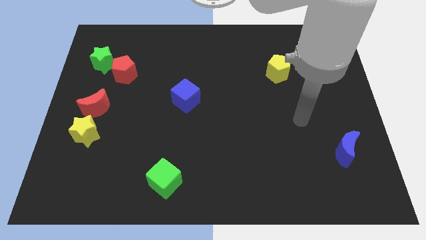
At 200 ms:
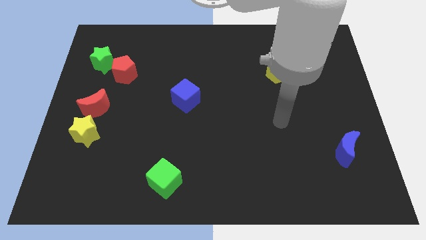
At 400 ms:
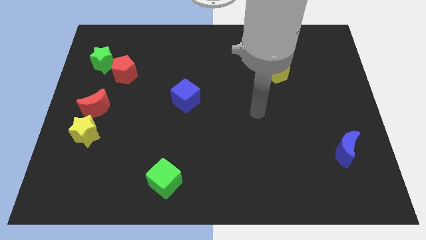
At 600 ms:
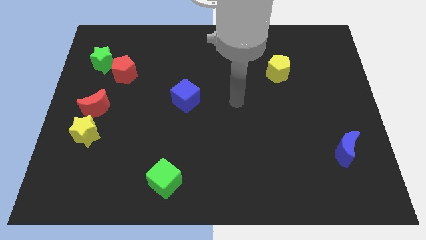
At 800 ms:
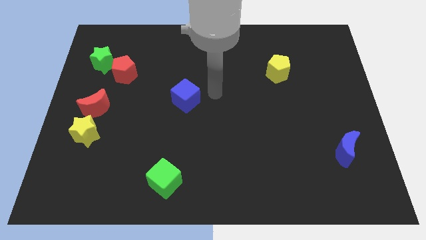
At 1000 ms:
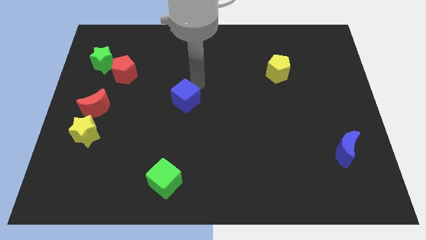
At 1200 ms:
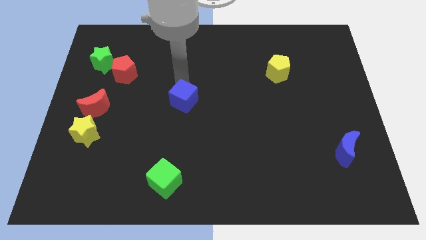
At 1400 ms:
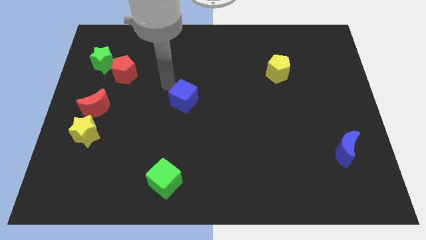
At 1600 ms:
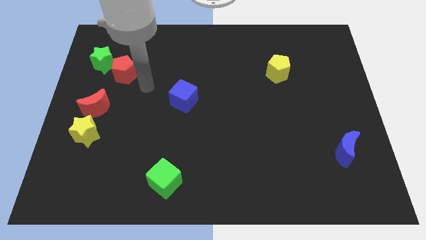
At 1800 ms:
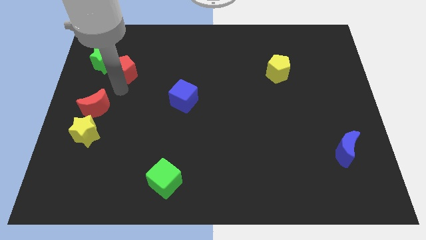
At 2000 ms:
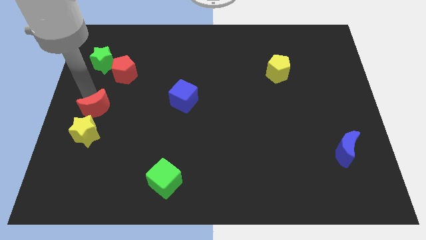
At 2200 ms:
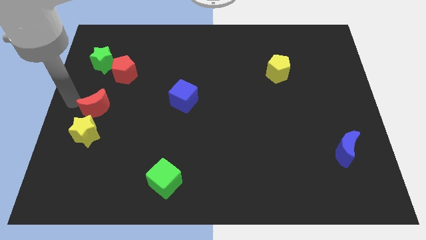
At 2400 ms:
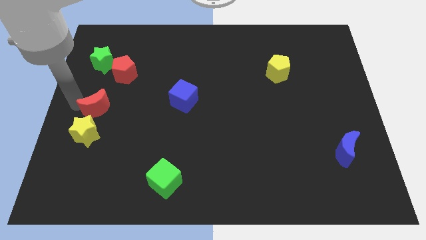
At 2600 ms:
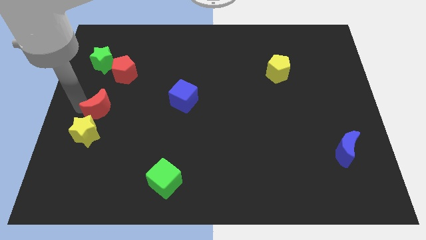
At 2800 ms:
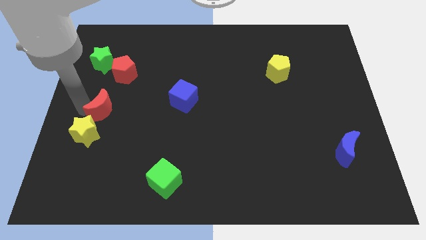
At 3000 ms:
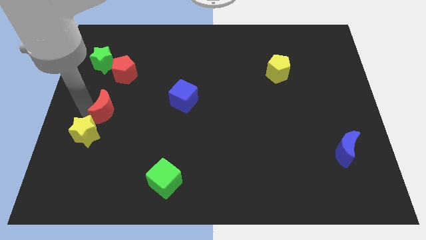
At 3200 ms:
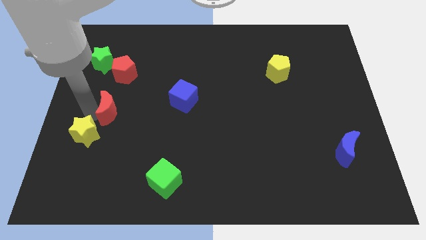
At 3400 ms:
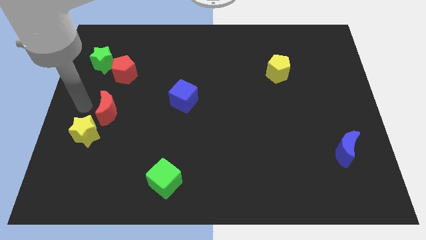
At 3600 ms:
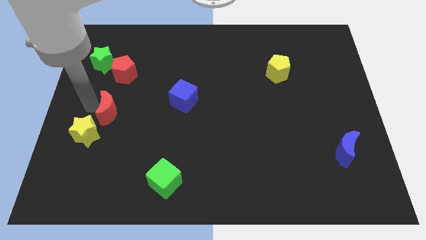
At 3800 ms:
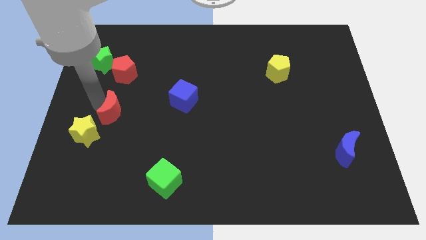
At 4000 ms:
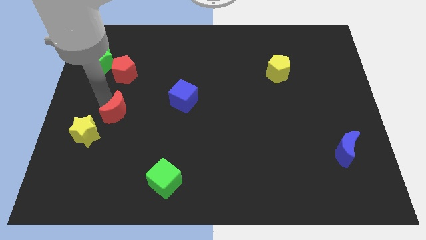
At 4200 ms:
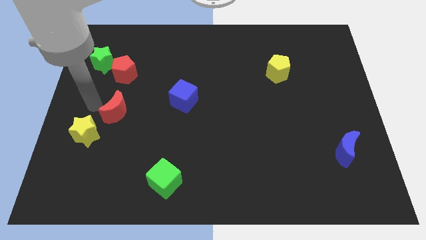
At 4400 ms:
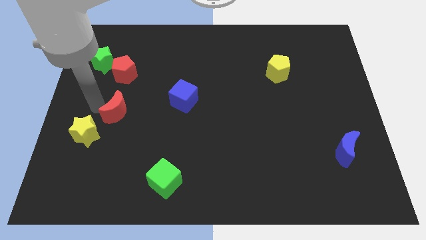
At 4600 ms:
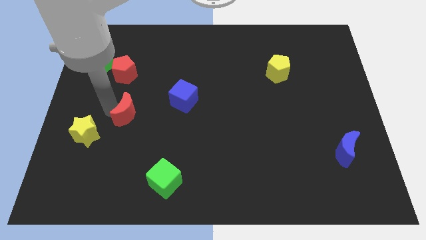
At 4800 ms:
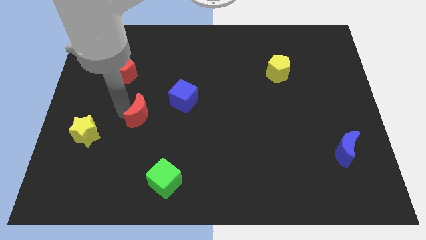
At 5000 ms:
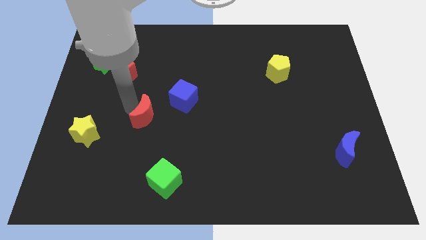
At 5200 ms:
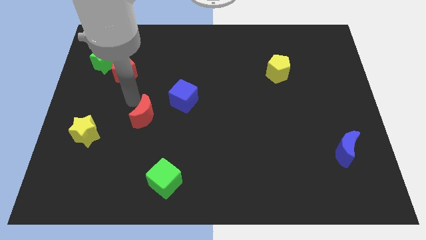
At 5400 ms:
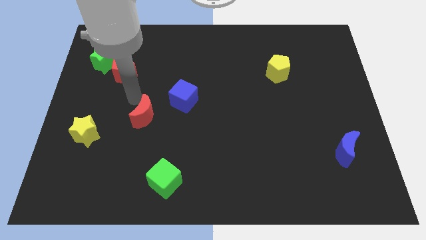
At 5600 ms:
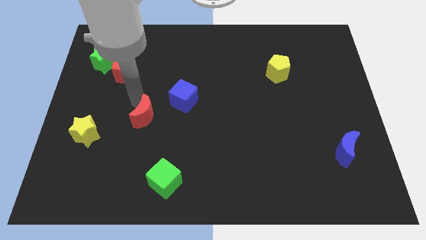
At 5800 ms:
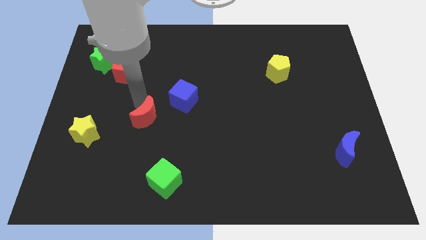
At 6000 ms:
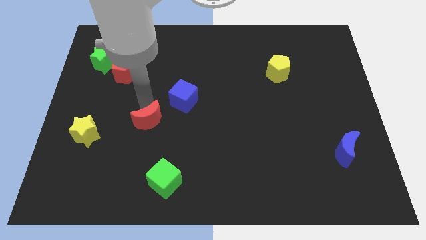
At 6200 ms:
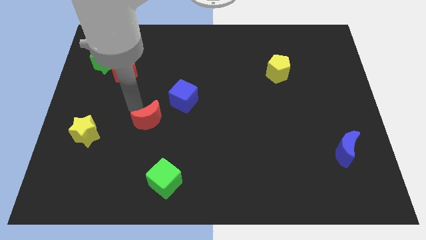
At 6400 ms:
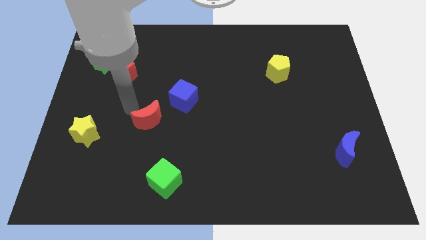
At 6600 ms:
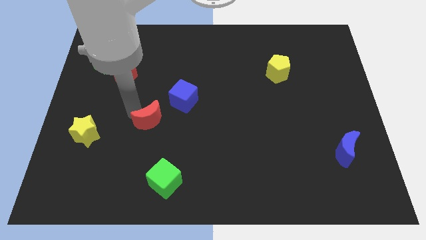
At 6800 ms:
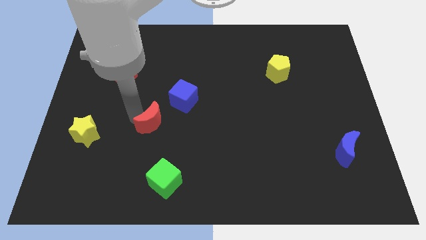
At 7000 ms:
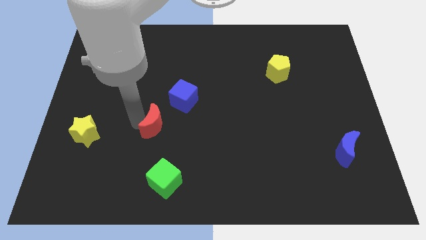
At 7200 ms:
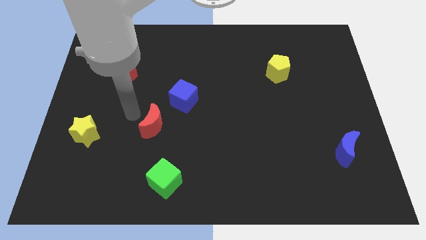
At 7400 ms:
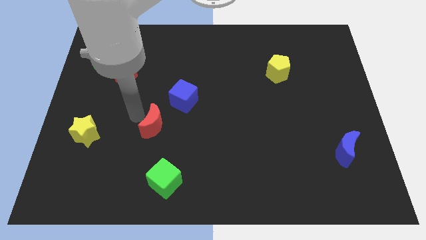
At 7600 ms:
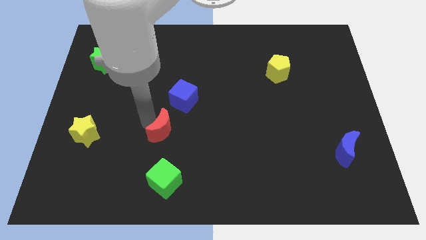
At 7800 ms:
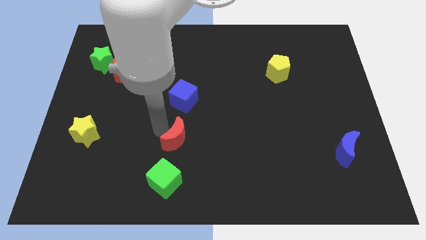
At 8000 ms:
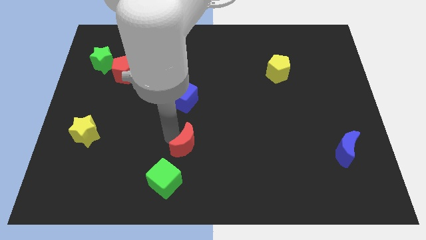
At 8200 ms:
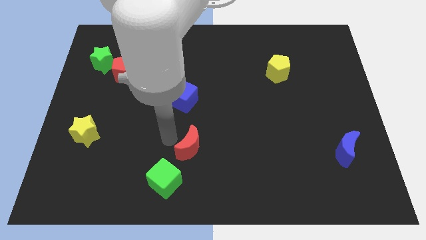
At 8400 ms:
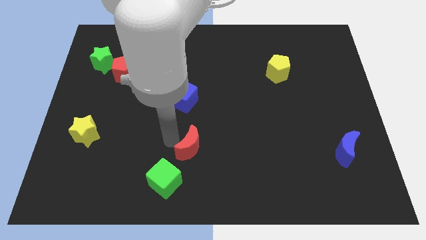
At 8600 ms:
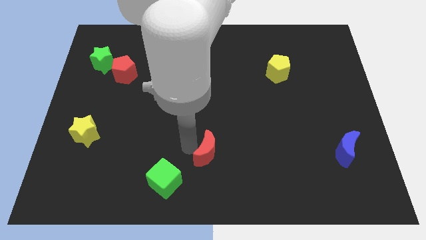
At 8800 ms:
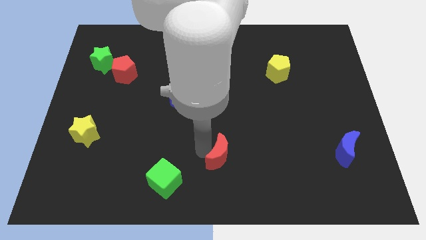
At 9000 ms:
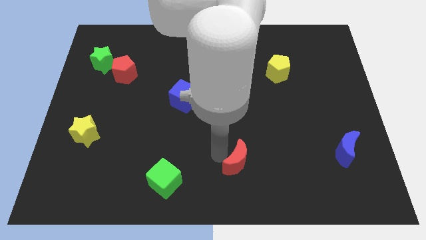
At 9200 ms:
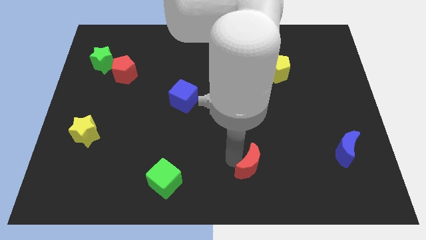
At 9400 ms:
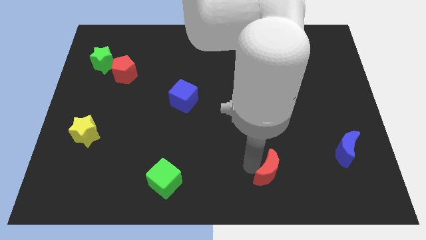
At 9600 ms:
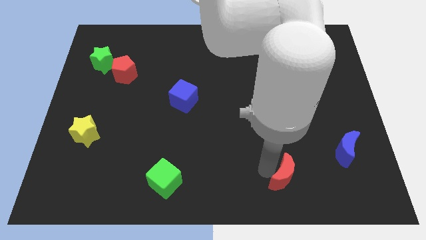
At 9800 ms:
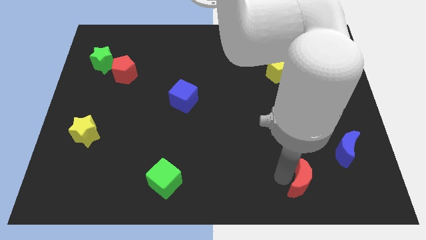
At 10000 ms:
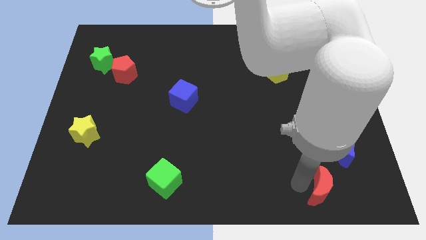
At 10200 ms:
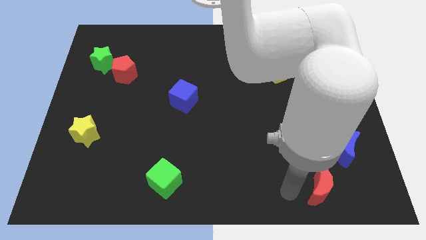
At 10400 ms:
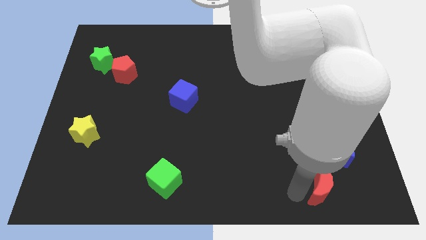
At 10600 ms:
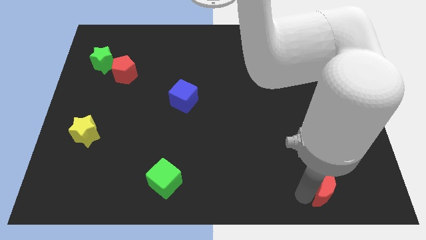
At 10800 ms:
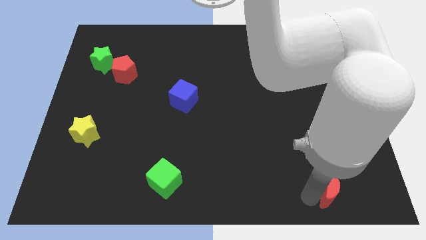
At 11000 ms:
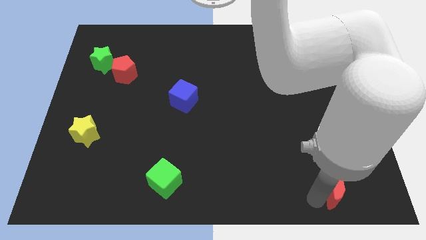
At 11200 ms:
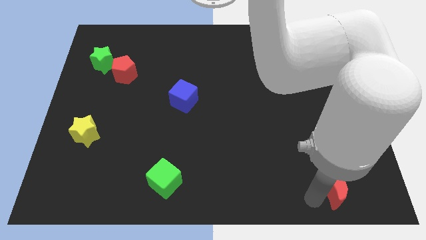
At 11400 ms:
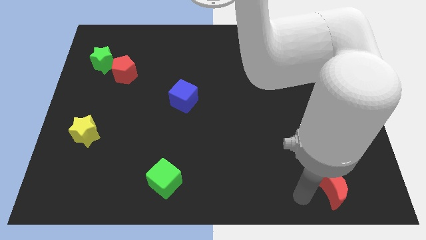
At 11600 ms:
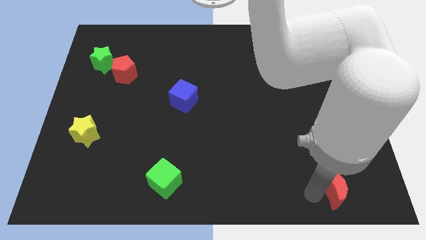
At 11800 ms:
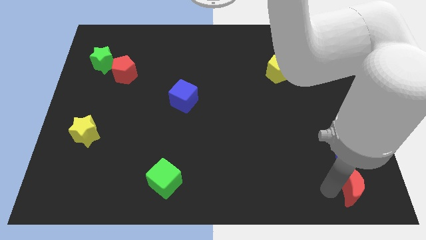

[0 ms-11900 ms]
push the red moon to the bottom right

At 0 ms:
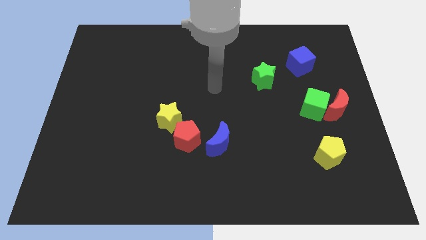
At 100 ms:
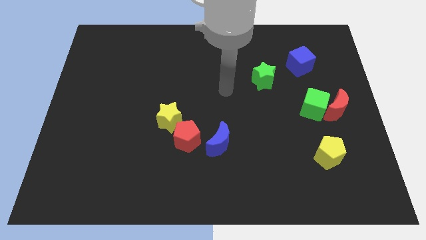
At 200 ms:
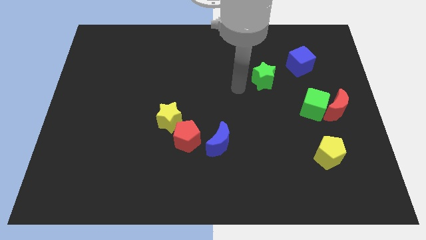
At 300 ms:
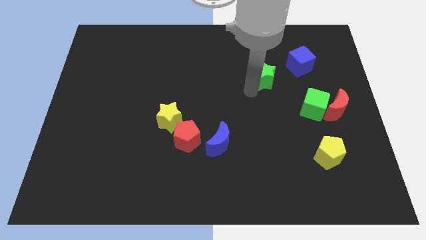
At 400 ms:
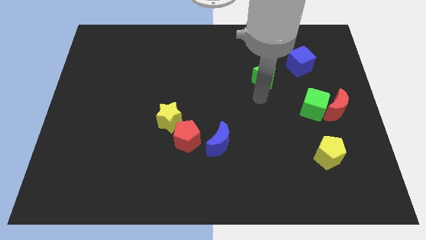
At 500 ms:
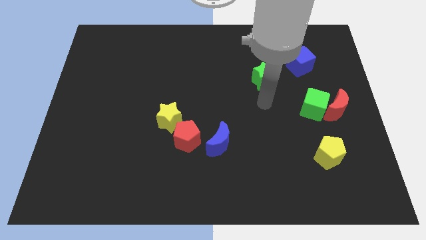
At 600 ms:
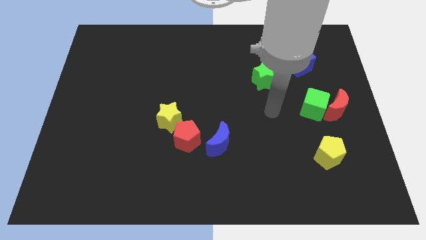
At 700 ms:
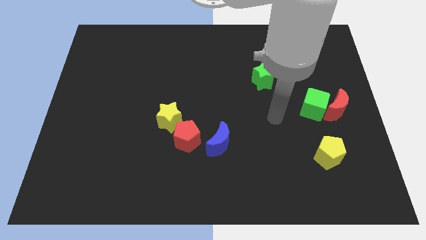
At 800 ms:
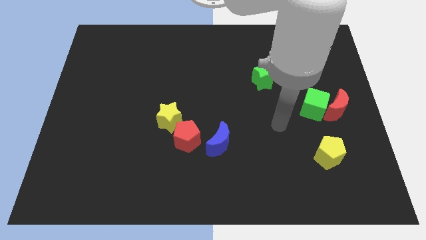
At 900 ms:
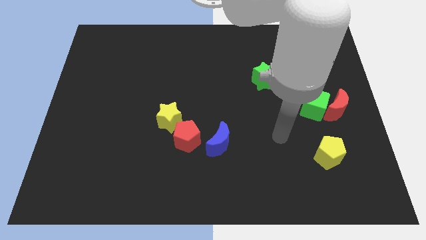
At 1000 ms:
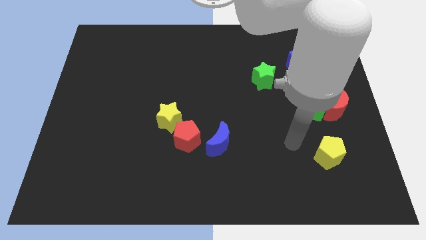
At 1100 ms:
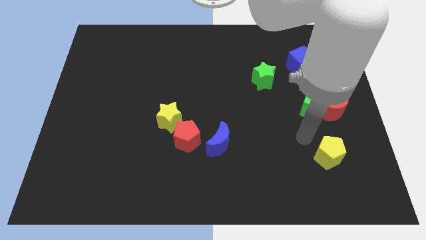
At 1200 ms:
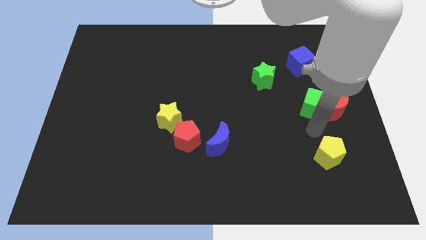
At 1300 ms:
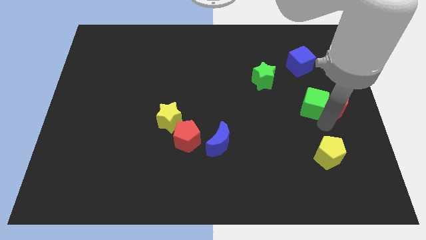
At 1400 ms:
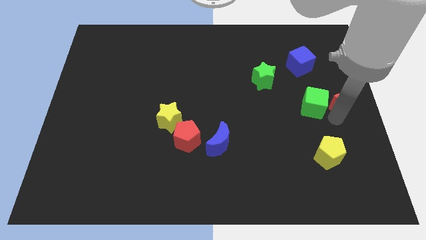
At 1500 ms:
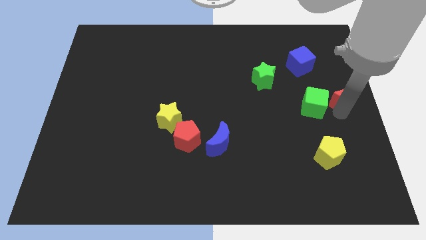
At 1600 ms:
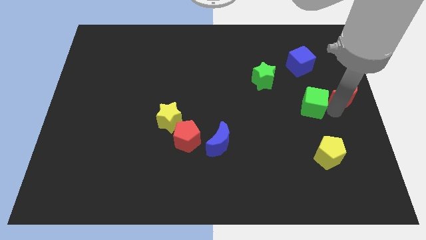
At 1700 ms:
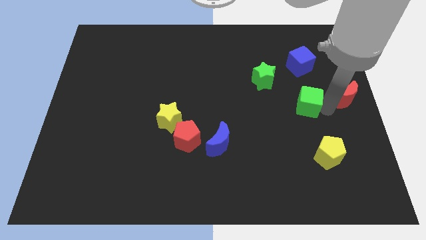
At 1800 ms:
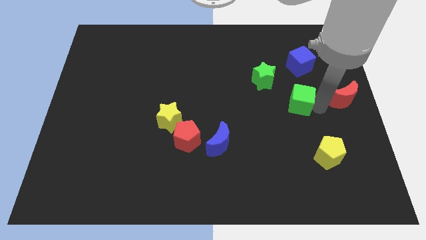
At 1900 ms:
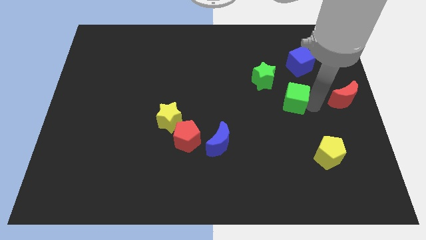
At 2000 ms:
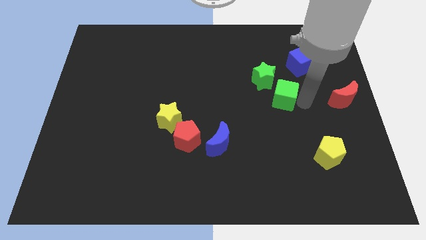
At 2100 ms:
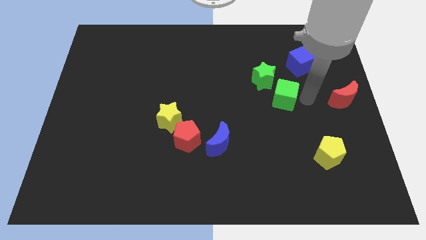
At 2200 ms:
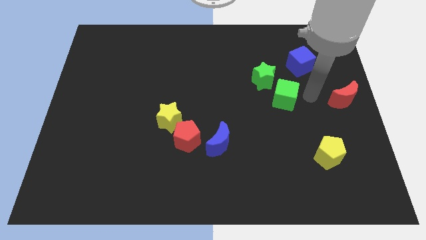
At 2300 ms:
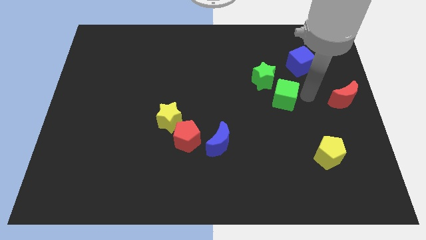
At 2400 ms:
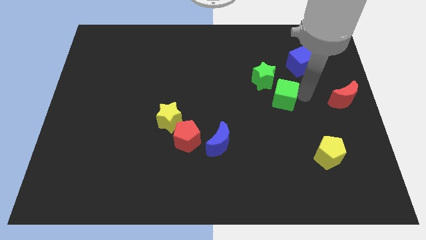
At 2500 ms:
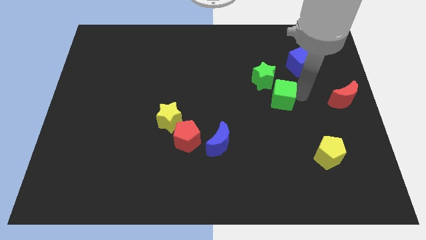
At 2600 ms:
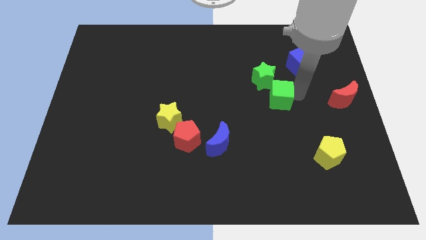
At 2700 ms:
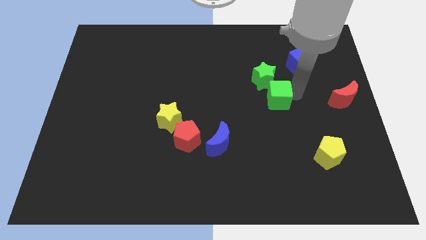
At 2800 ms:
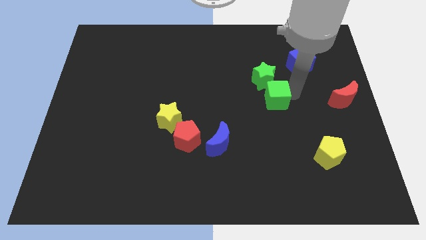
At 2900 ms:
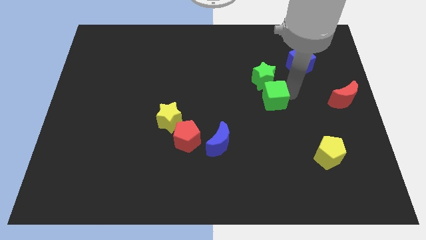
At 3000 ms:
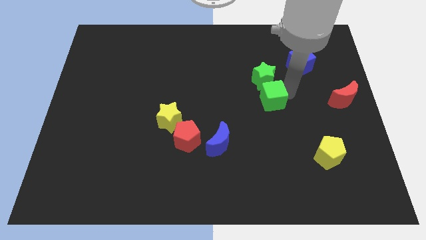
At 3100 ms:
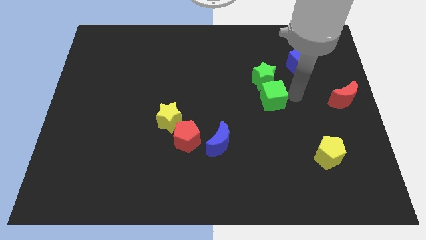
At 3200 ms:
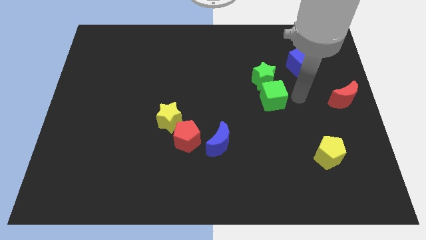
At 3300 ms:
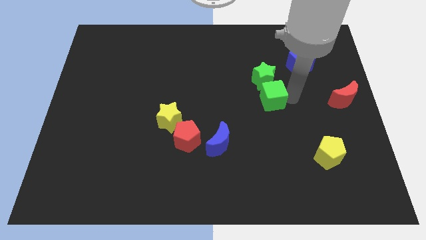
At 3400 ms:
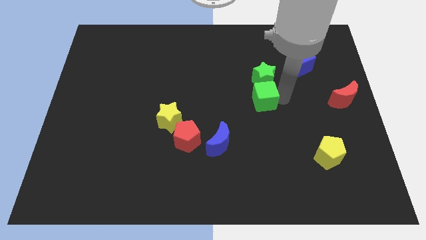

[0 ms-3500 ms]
push the green cube to the middle of the board
